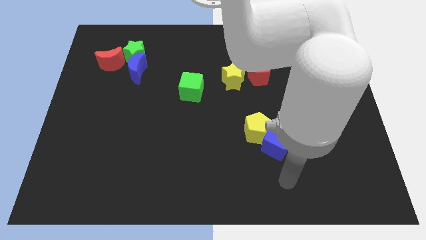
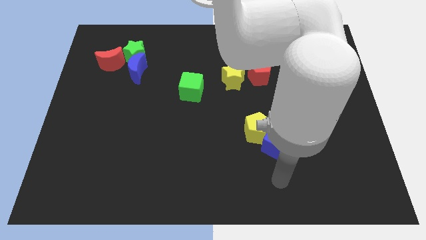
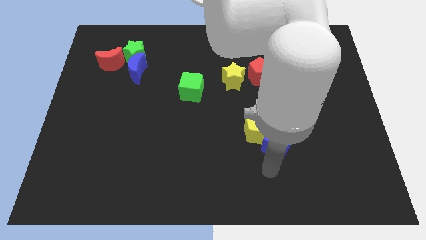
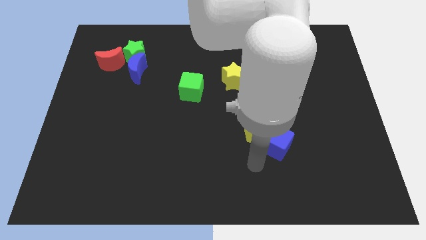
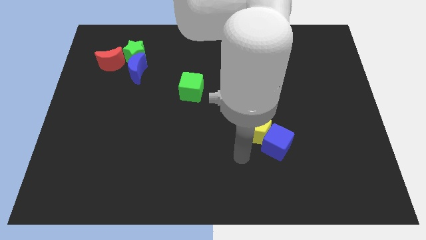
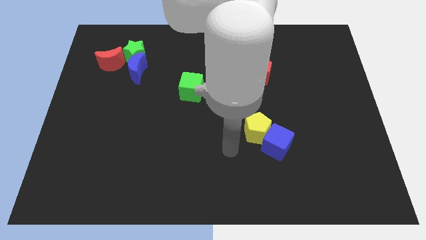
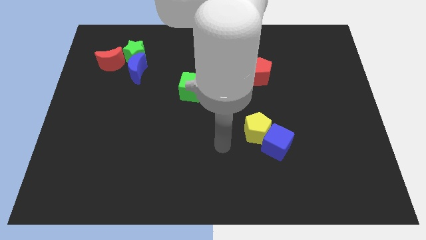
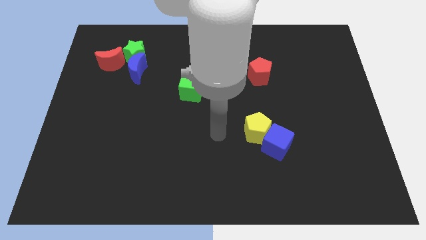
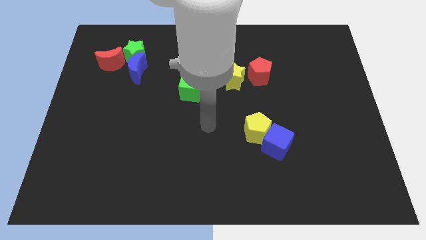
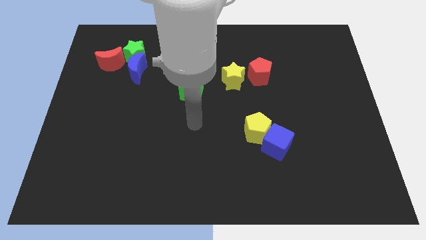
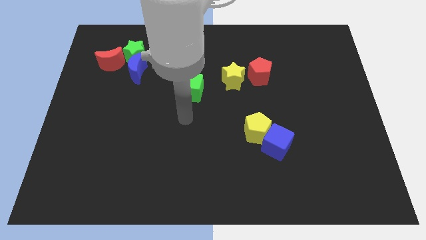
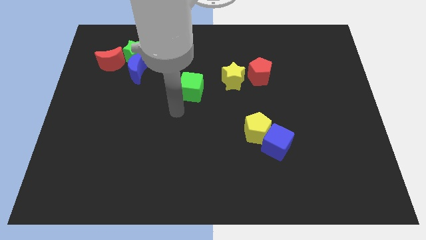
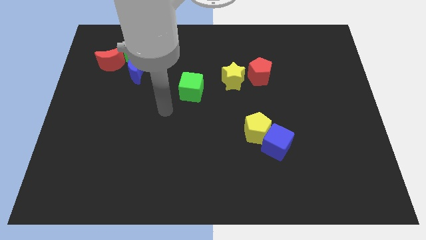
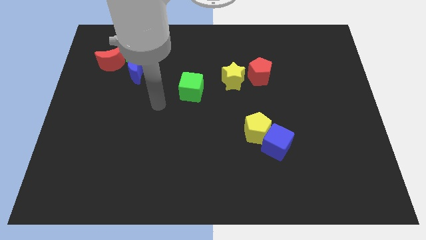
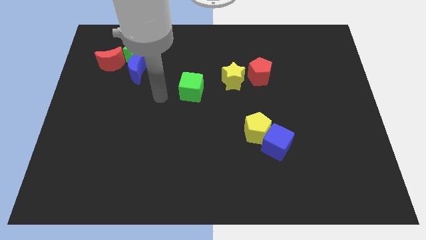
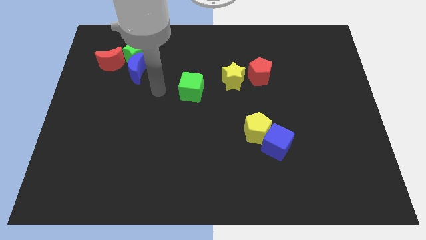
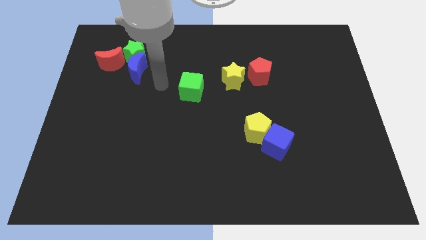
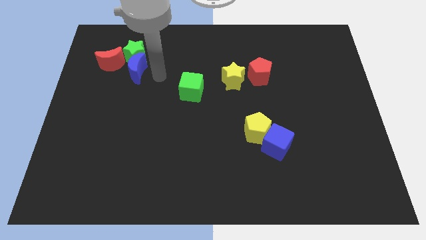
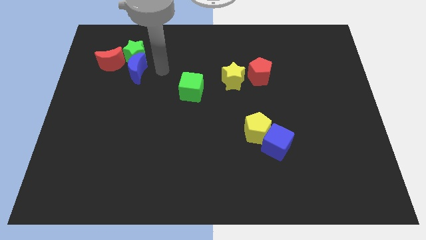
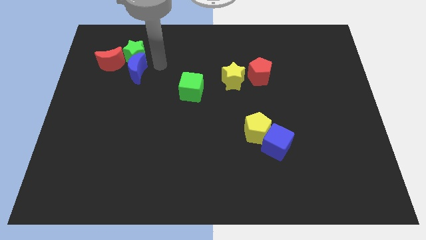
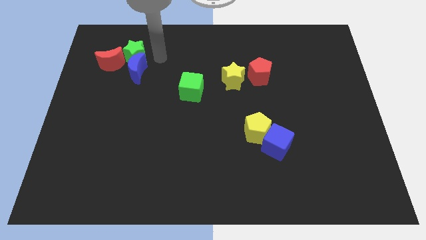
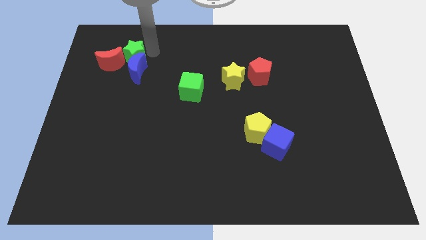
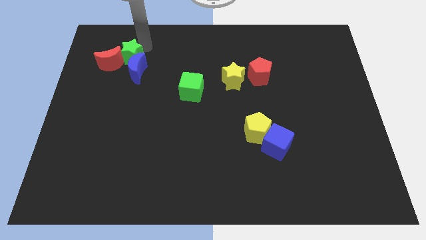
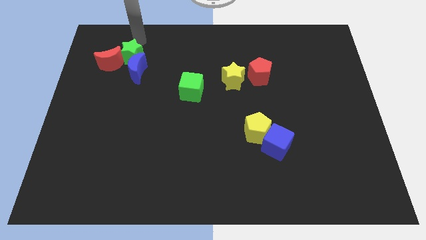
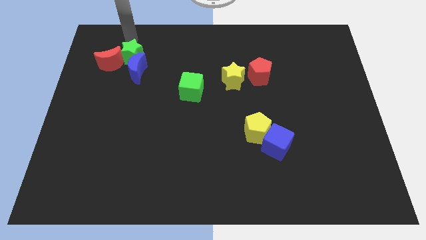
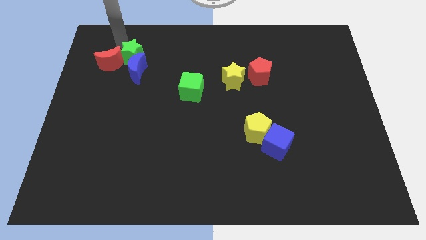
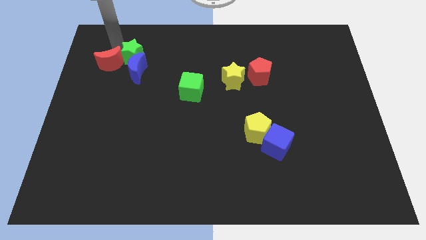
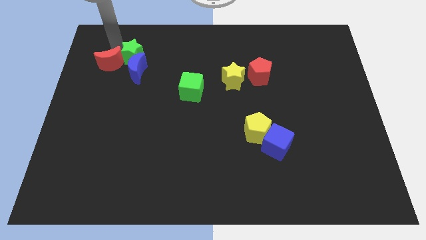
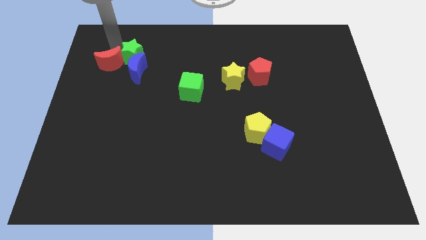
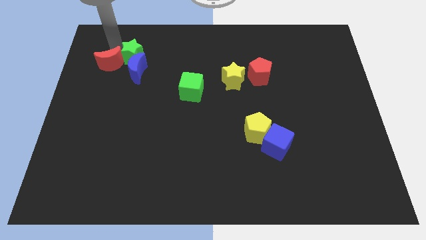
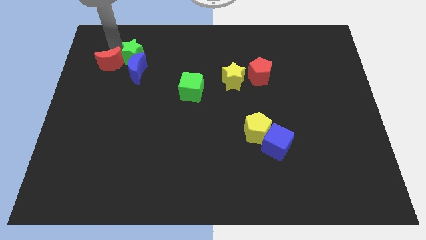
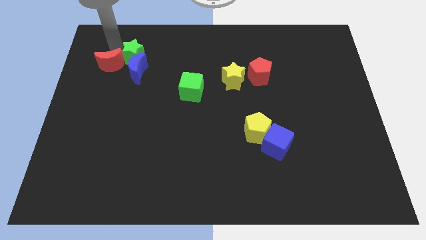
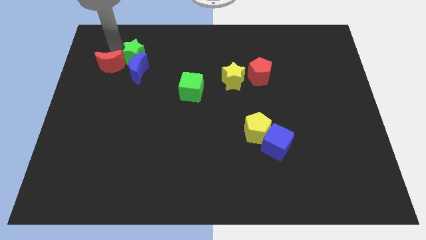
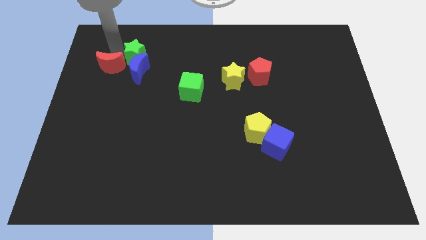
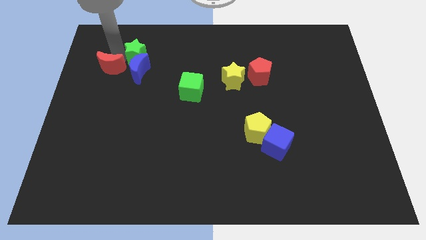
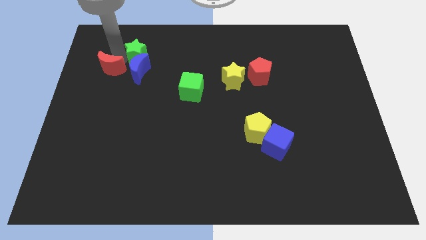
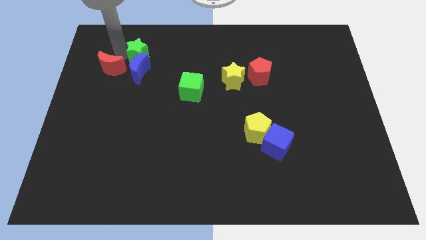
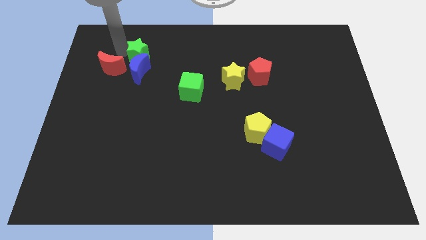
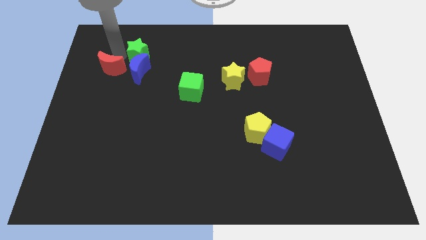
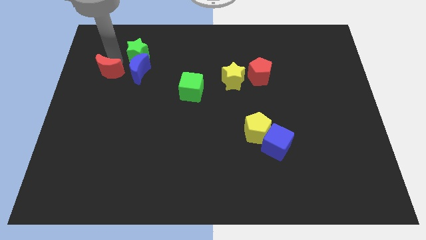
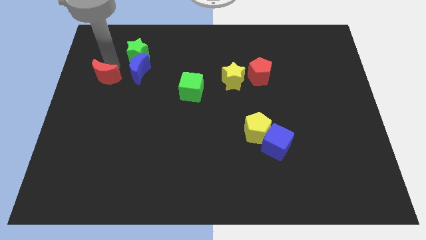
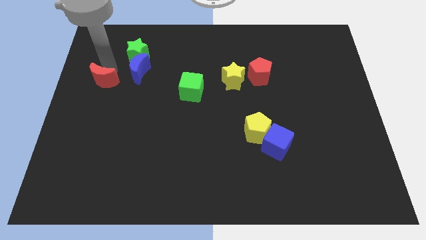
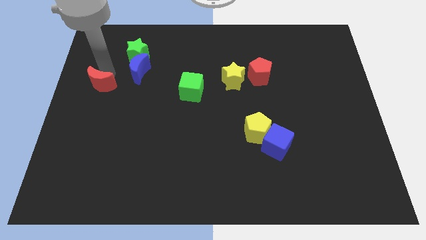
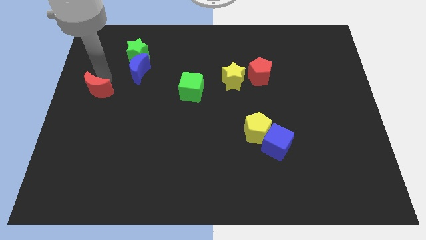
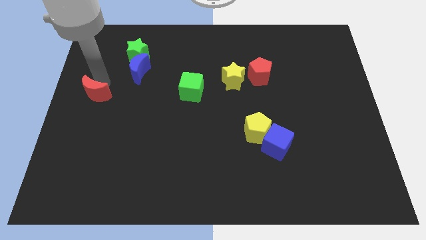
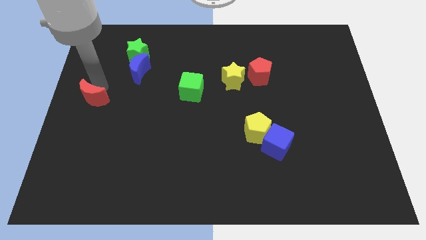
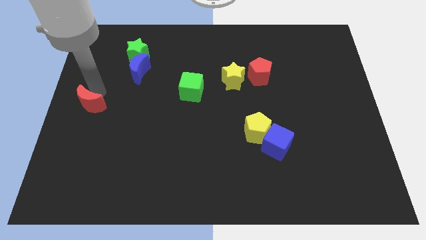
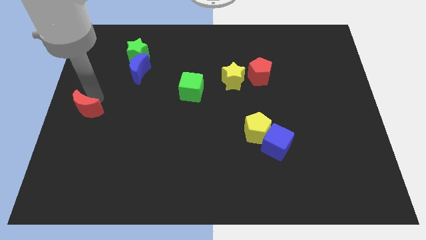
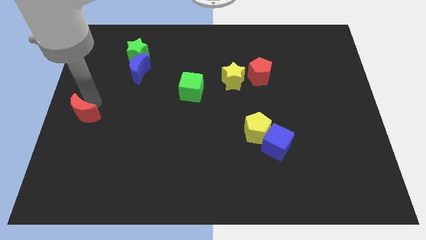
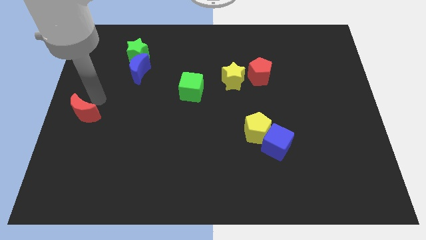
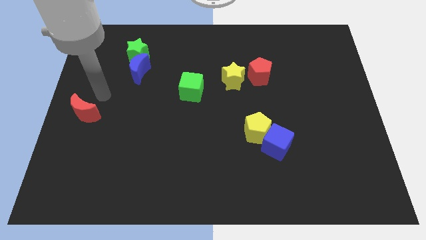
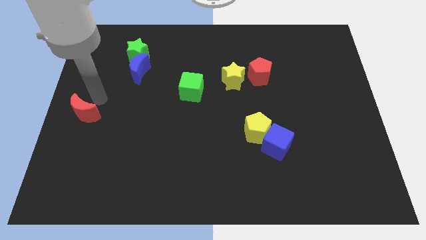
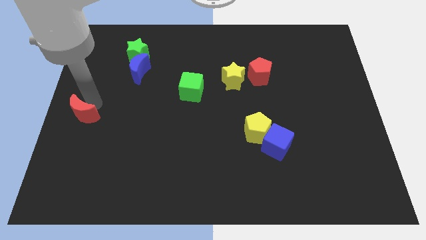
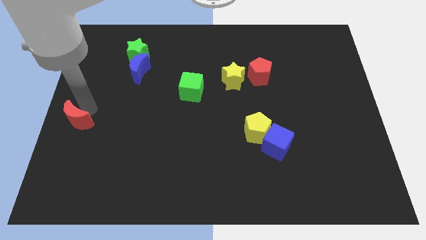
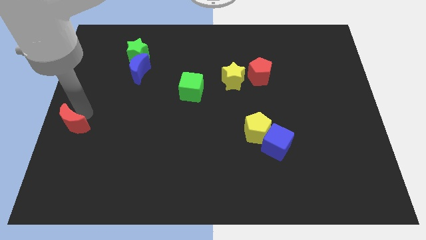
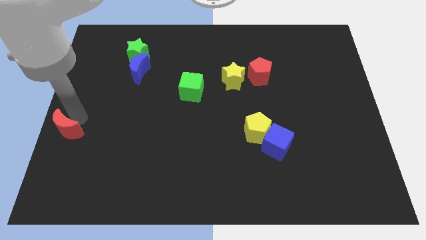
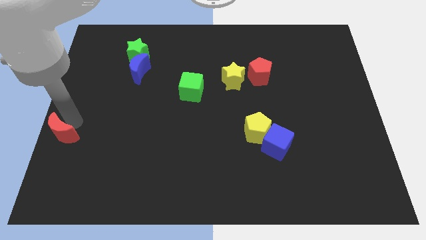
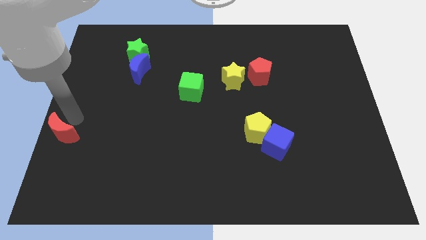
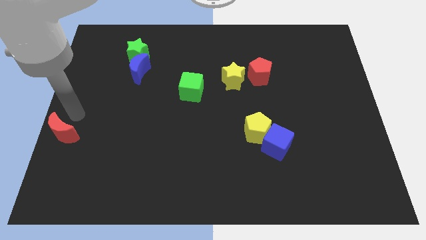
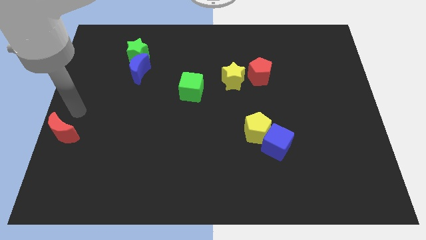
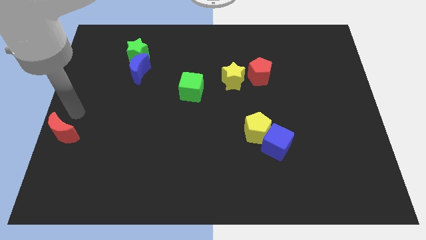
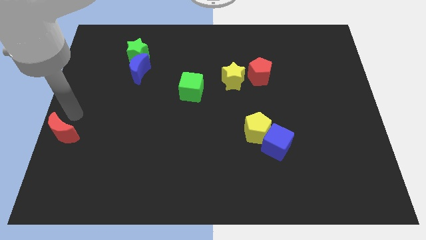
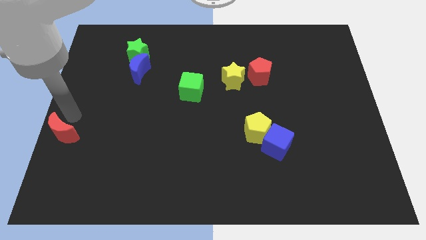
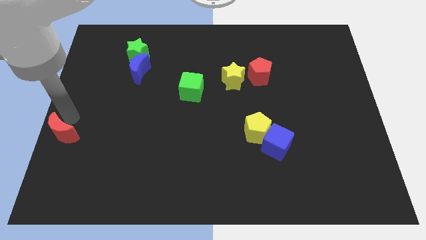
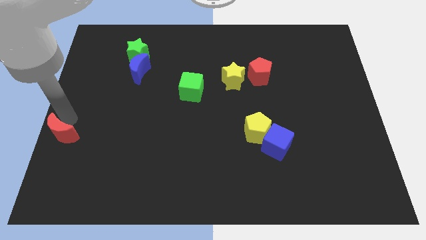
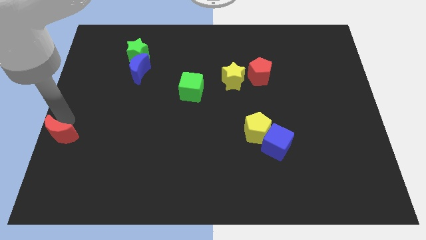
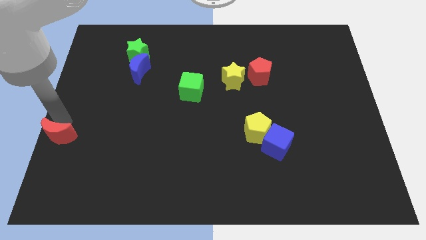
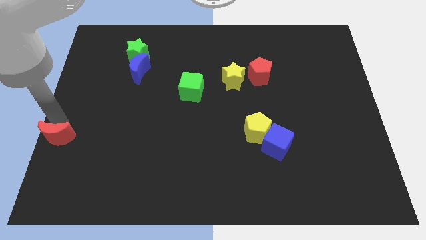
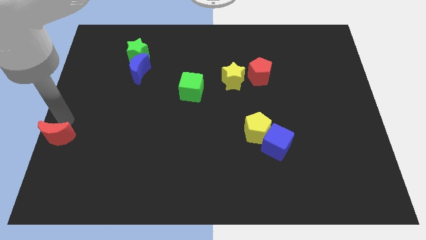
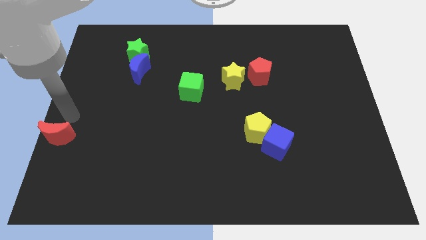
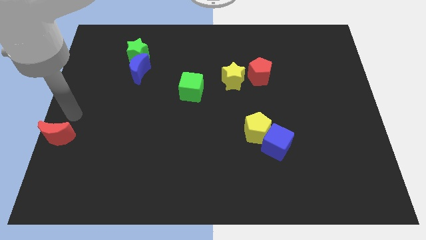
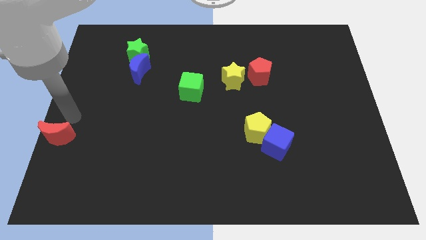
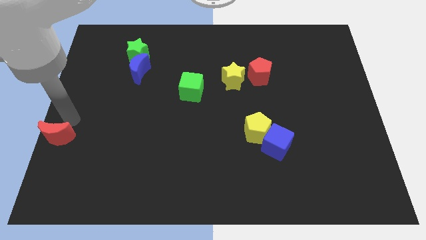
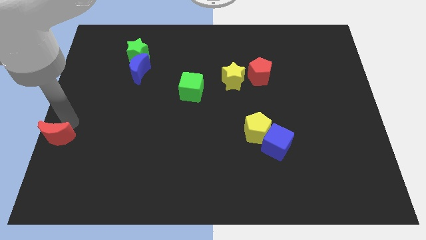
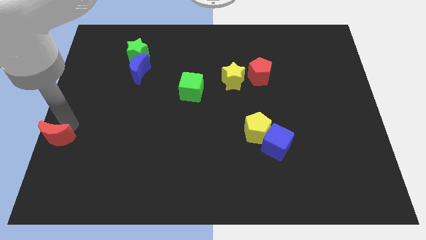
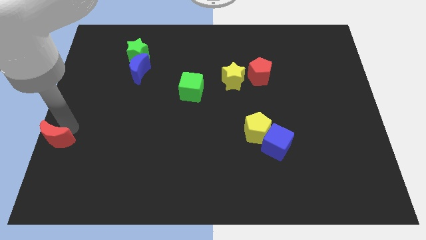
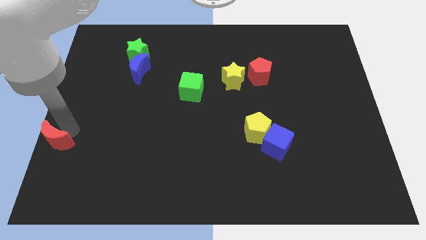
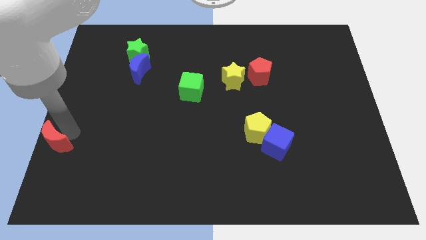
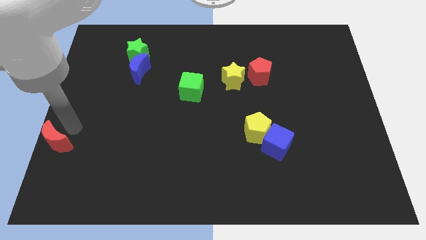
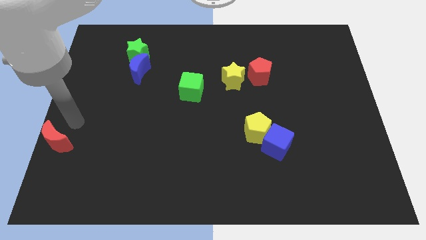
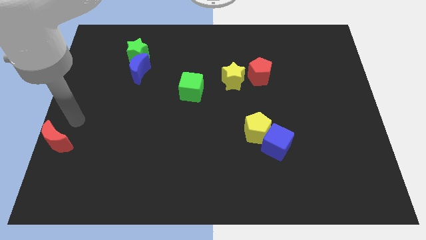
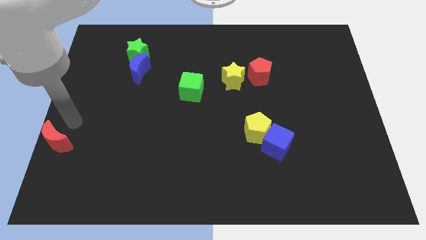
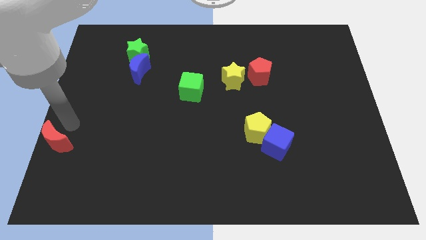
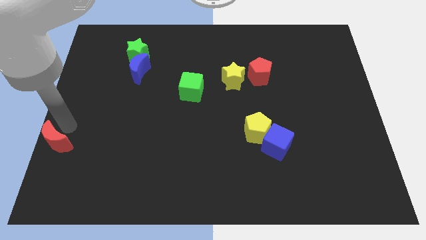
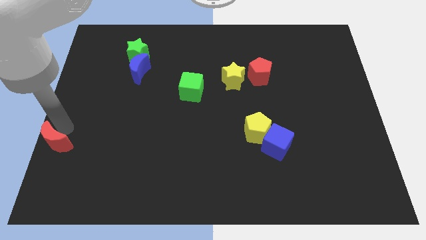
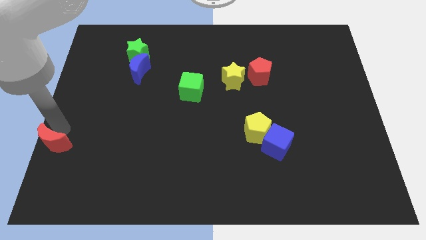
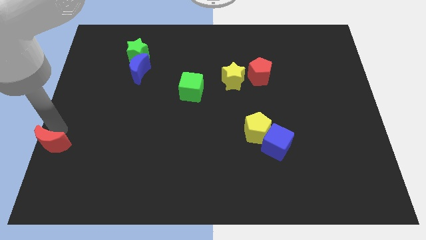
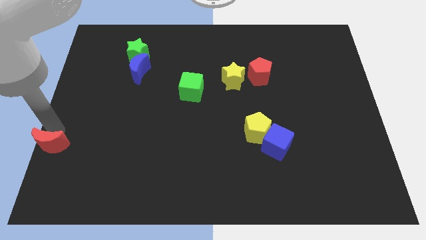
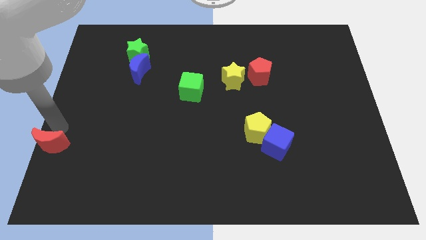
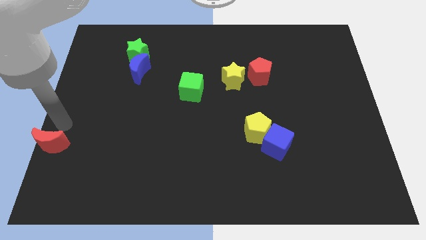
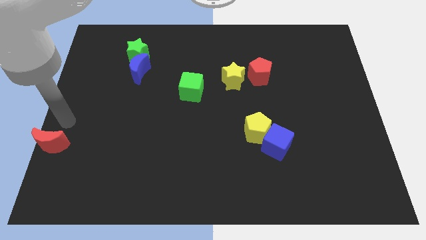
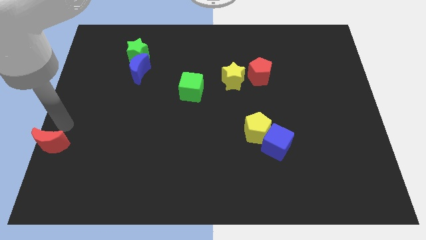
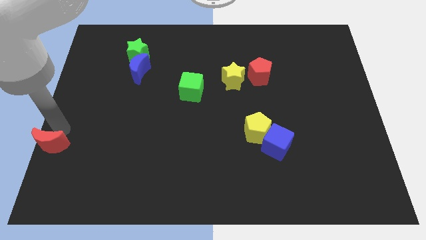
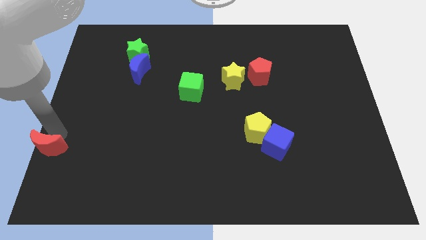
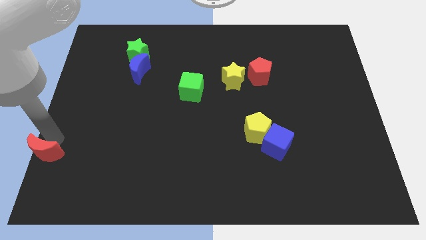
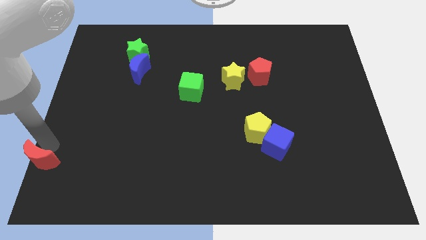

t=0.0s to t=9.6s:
move the red moon to the bottom left of the board
